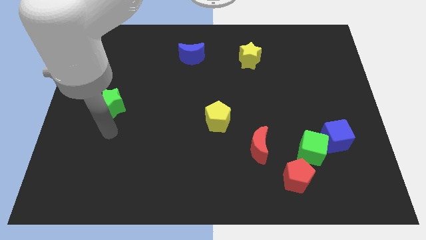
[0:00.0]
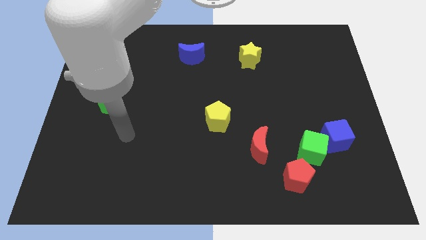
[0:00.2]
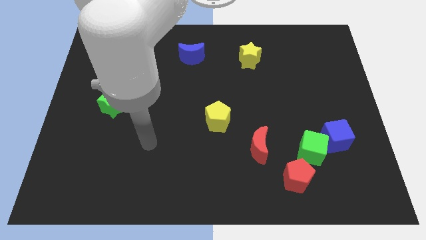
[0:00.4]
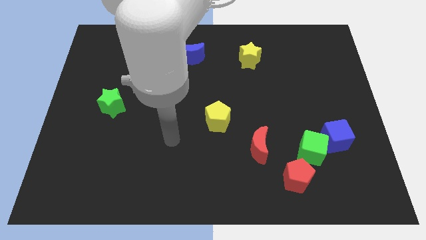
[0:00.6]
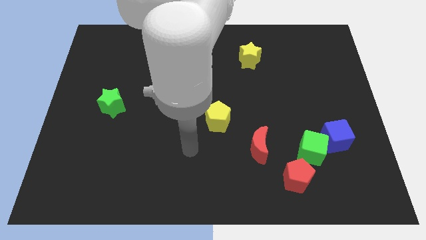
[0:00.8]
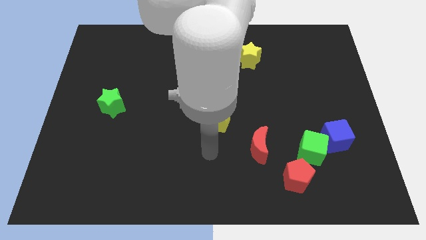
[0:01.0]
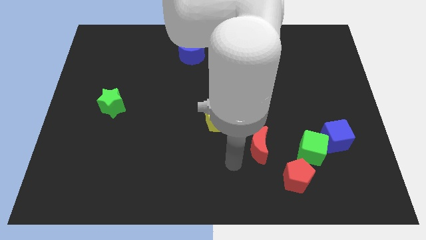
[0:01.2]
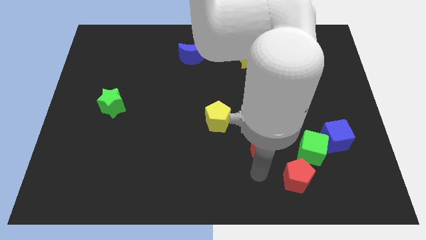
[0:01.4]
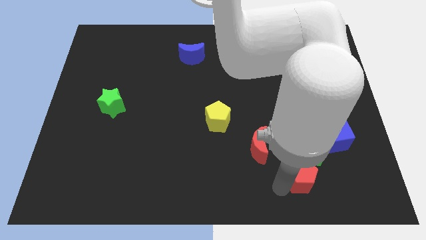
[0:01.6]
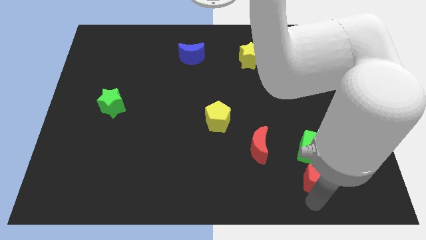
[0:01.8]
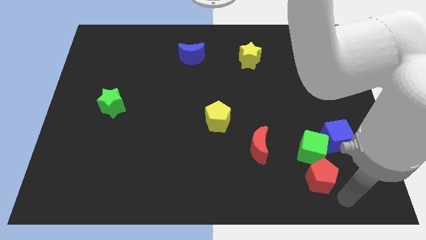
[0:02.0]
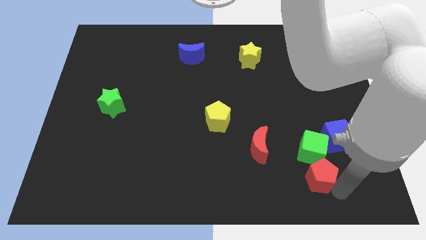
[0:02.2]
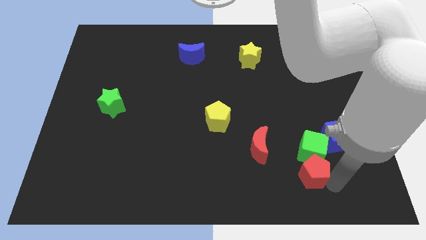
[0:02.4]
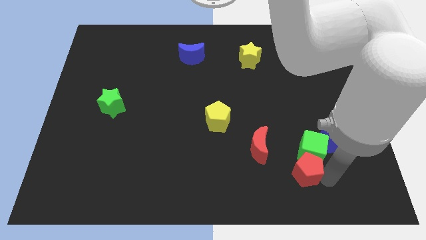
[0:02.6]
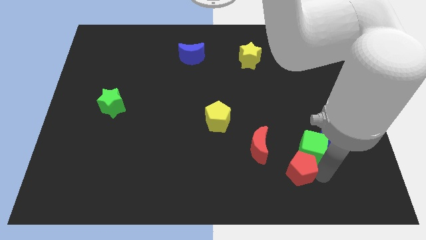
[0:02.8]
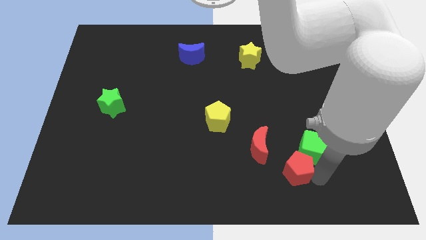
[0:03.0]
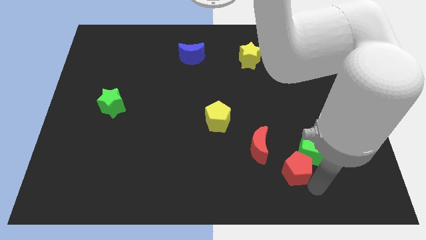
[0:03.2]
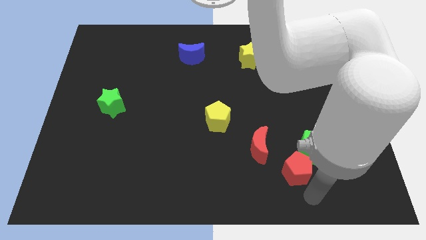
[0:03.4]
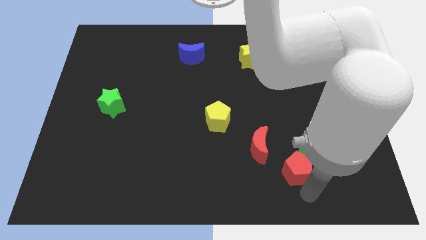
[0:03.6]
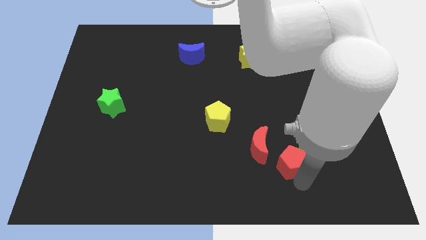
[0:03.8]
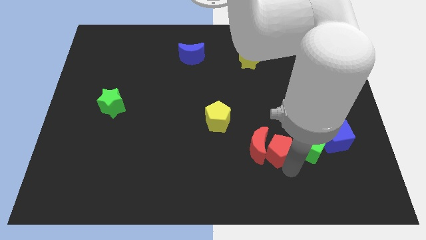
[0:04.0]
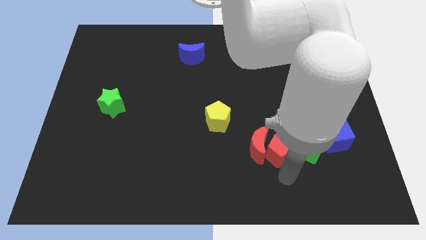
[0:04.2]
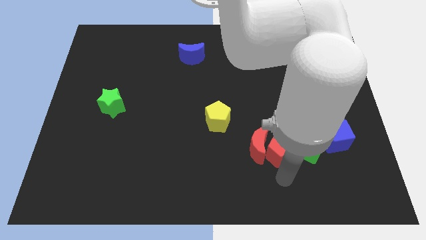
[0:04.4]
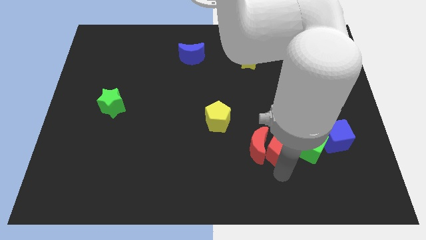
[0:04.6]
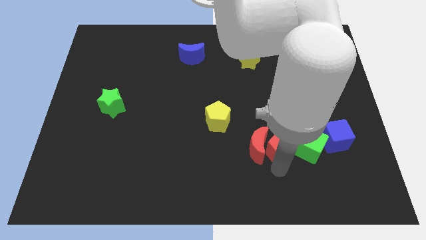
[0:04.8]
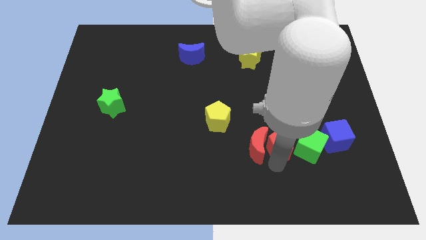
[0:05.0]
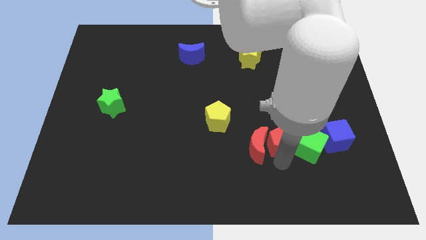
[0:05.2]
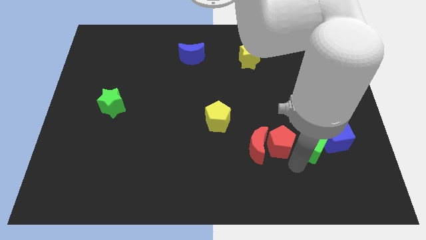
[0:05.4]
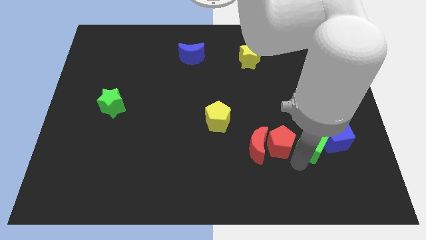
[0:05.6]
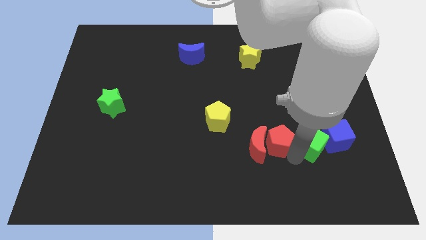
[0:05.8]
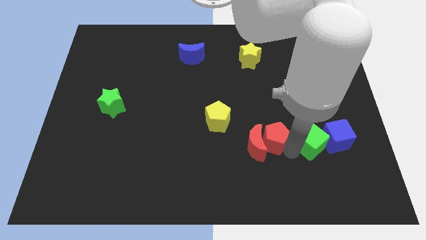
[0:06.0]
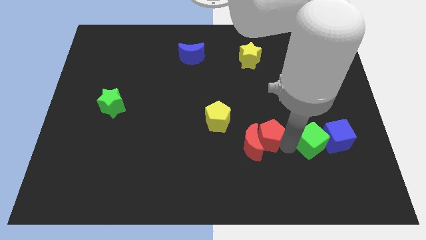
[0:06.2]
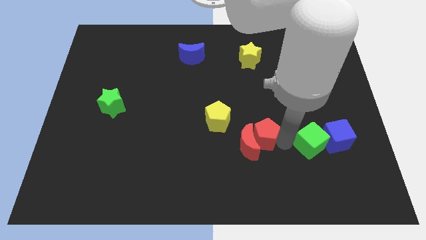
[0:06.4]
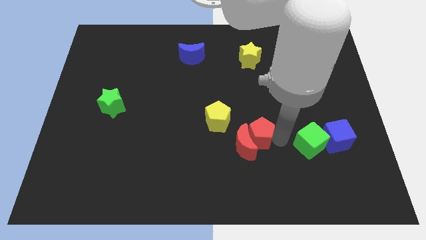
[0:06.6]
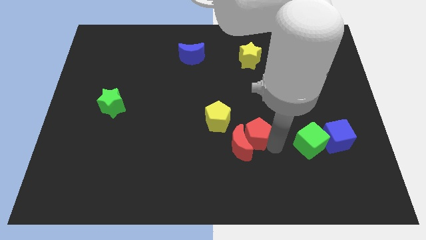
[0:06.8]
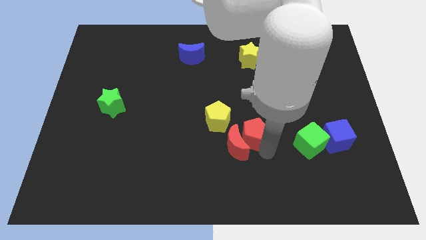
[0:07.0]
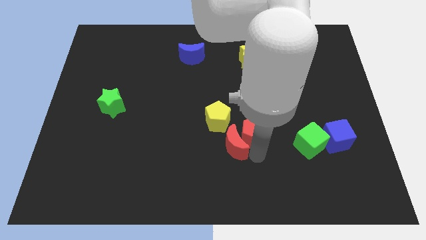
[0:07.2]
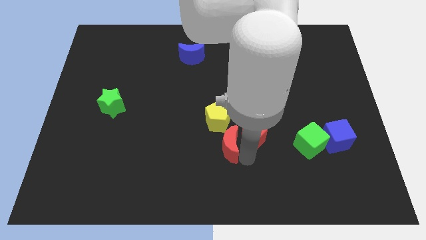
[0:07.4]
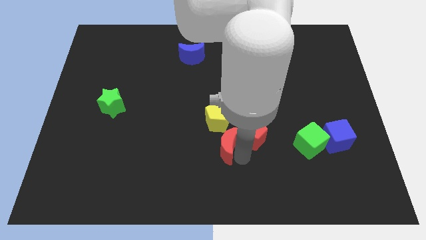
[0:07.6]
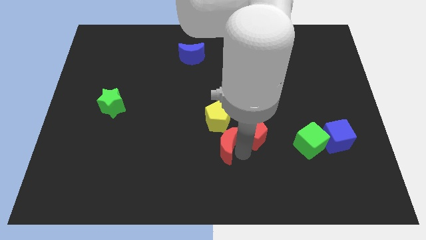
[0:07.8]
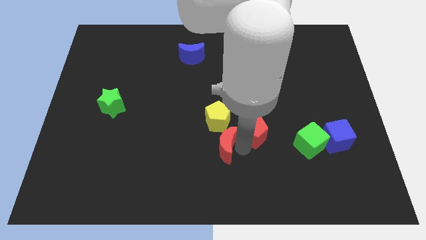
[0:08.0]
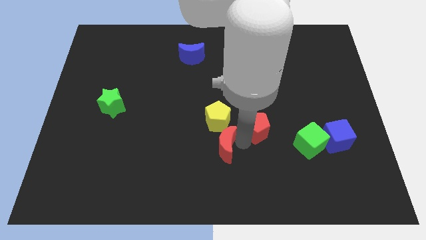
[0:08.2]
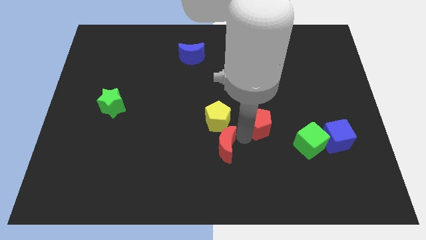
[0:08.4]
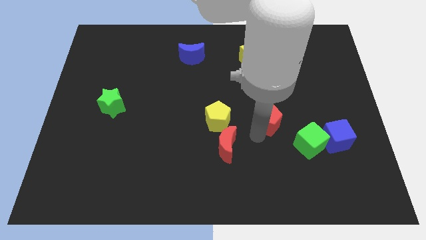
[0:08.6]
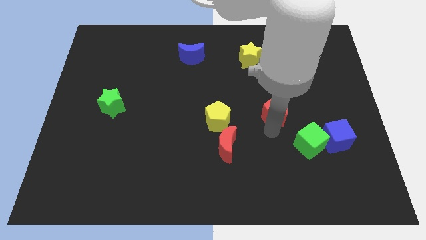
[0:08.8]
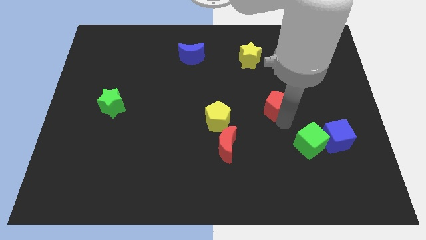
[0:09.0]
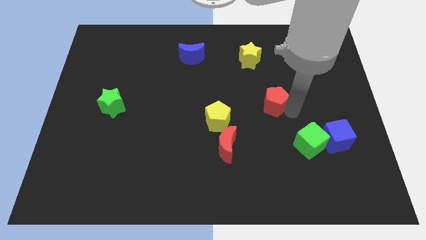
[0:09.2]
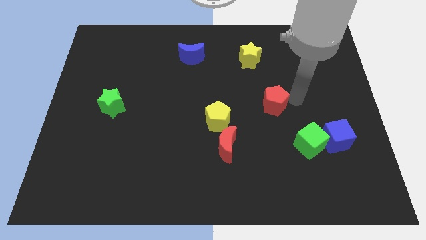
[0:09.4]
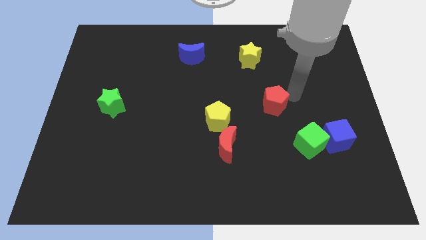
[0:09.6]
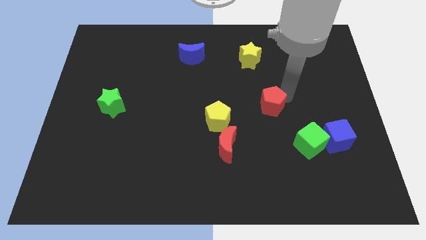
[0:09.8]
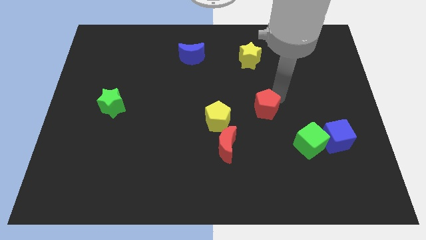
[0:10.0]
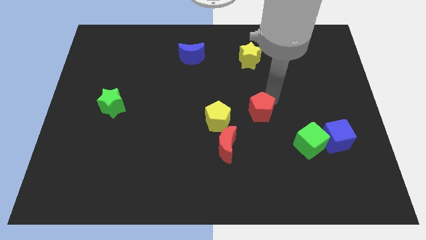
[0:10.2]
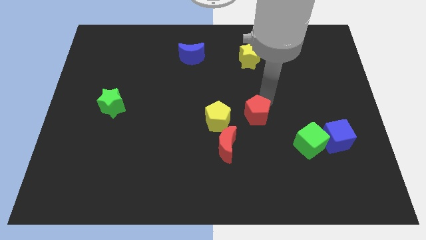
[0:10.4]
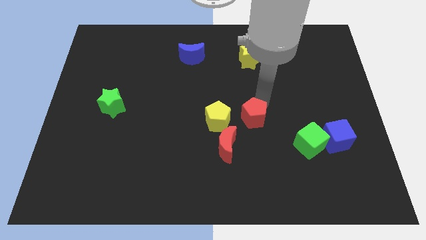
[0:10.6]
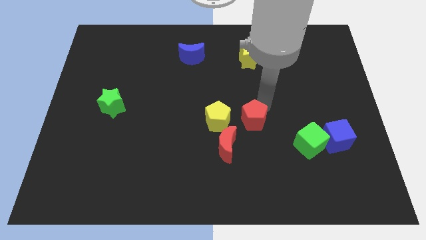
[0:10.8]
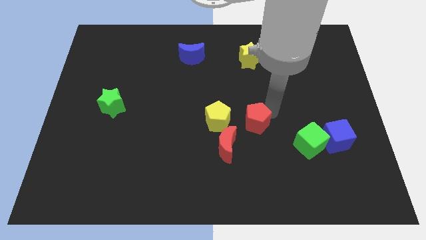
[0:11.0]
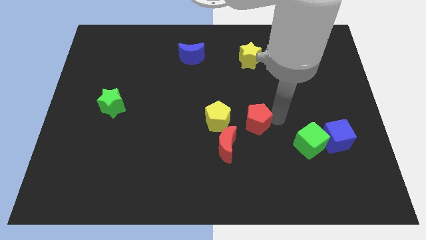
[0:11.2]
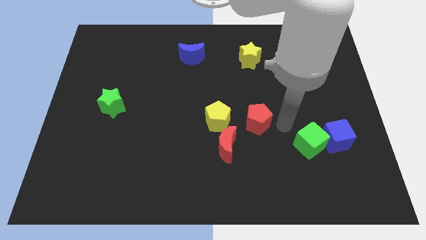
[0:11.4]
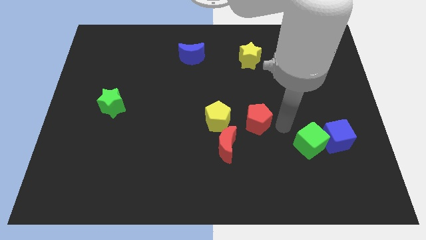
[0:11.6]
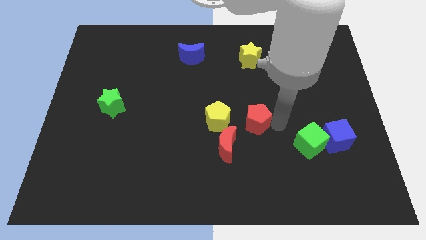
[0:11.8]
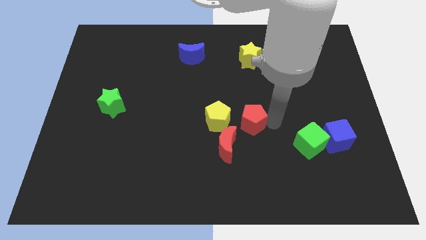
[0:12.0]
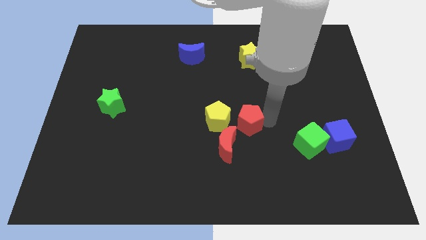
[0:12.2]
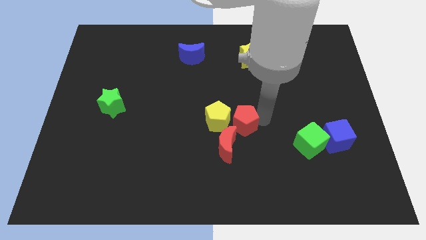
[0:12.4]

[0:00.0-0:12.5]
slide the red pentagon to the yellow pentagon

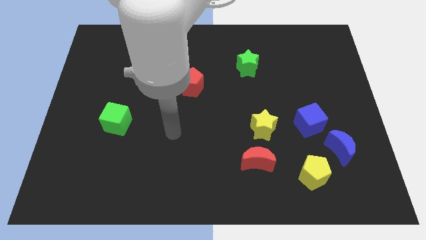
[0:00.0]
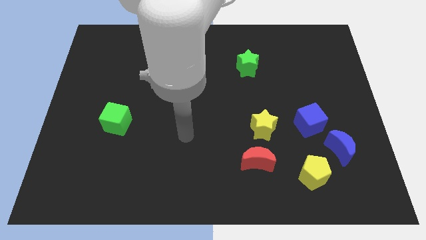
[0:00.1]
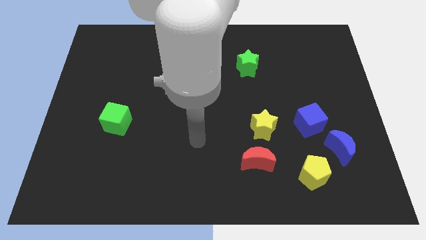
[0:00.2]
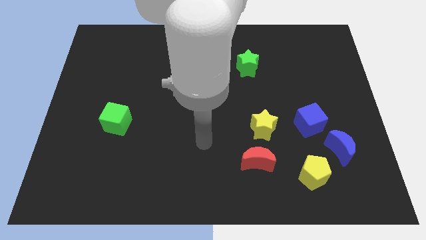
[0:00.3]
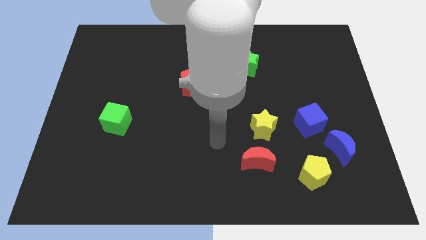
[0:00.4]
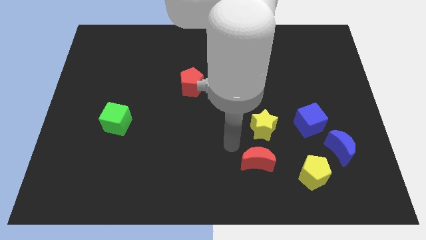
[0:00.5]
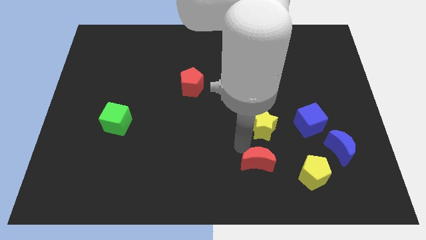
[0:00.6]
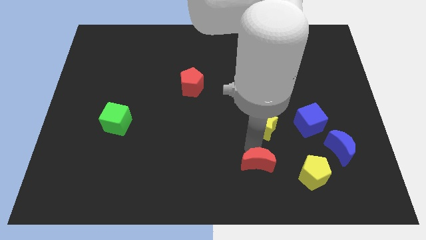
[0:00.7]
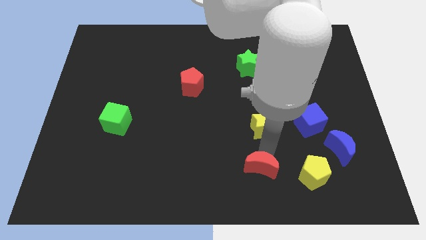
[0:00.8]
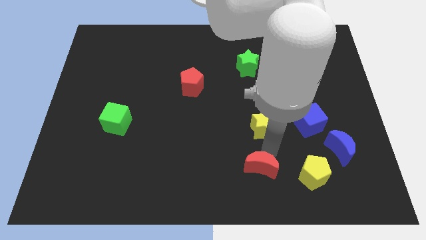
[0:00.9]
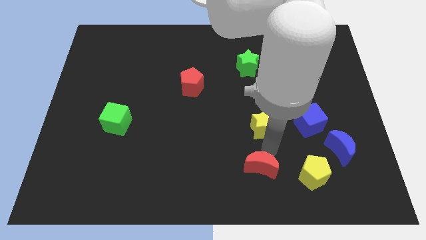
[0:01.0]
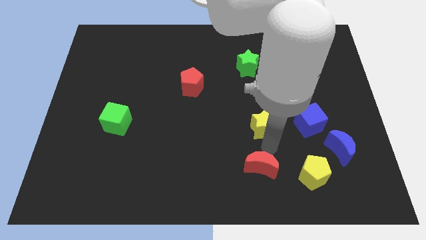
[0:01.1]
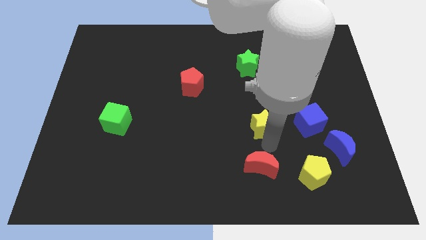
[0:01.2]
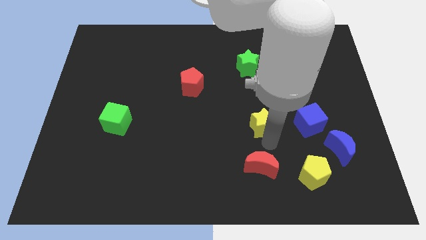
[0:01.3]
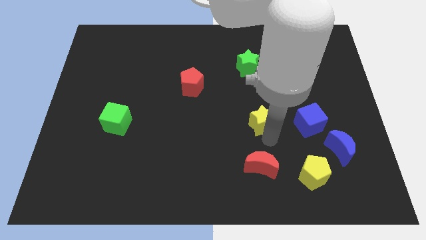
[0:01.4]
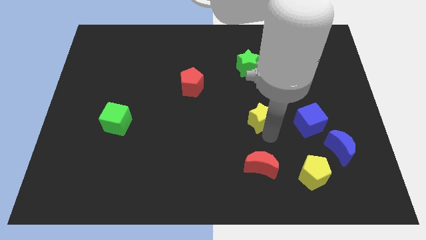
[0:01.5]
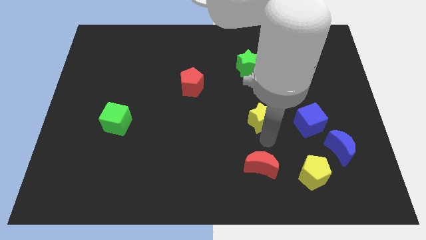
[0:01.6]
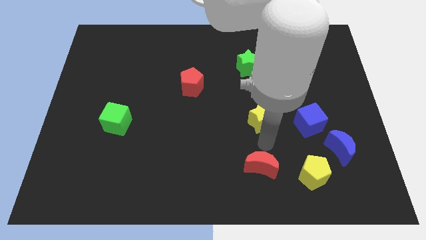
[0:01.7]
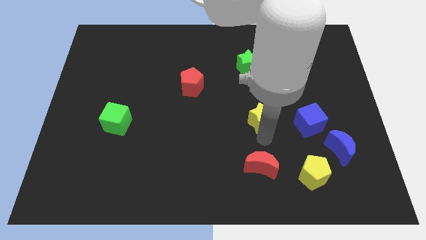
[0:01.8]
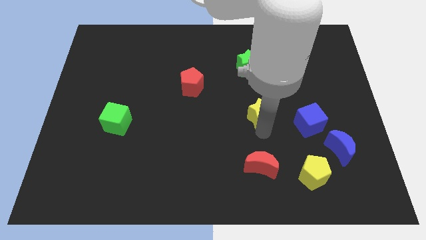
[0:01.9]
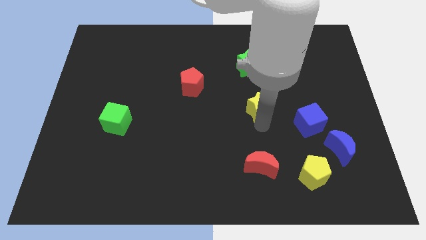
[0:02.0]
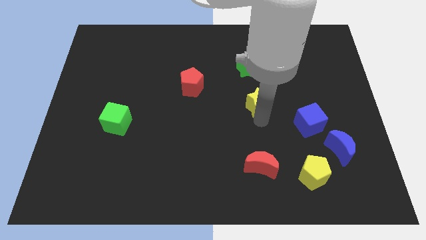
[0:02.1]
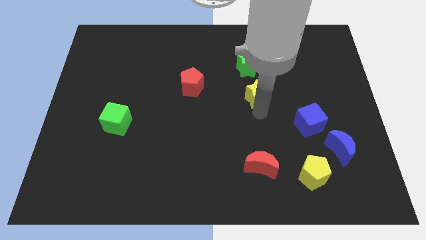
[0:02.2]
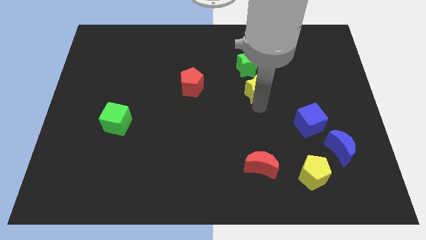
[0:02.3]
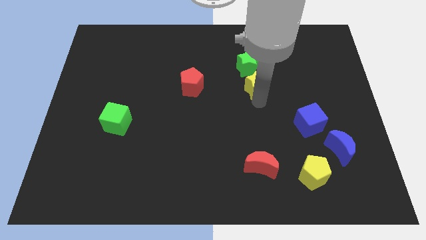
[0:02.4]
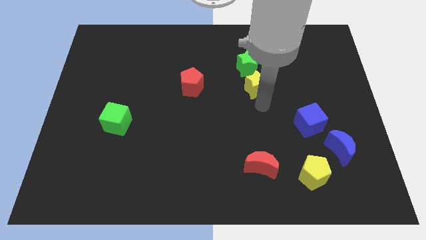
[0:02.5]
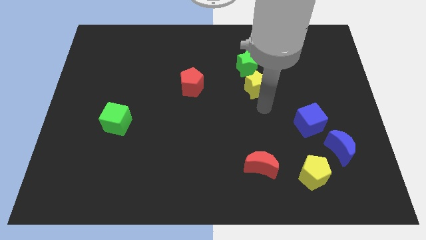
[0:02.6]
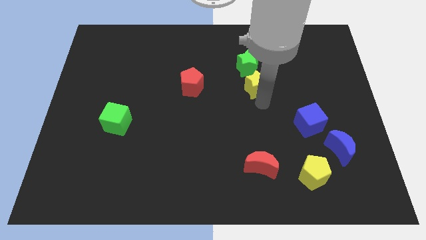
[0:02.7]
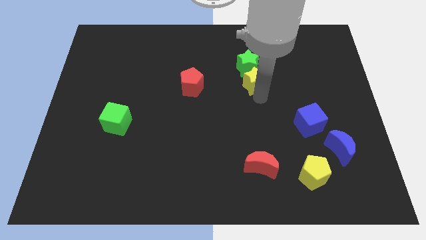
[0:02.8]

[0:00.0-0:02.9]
move the yellow star towards the green star
